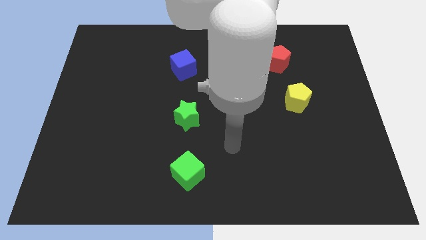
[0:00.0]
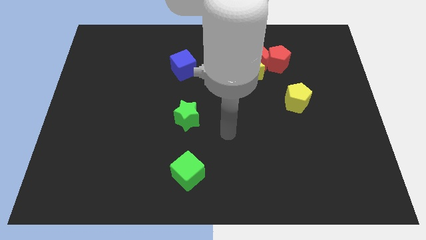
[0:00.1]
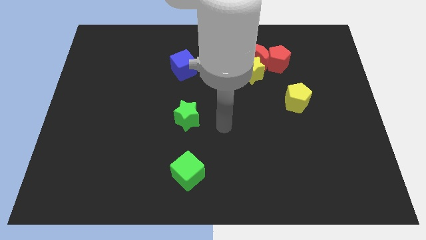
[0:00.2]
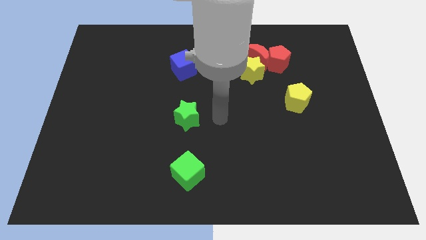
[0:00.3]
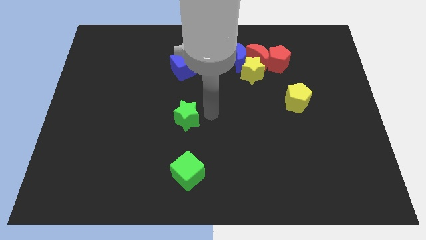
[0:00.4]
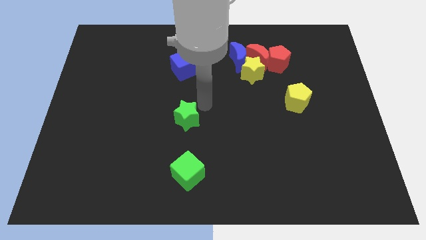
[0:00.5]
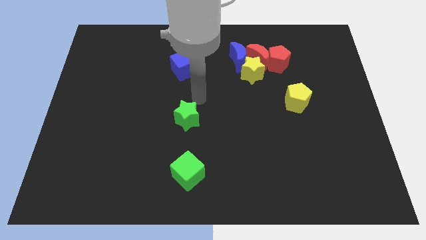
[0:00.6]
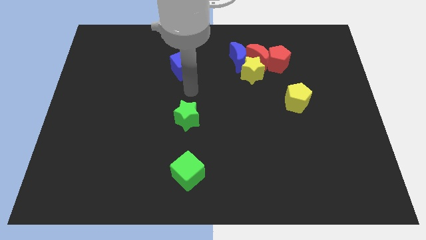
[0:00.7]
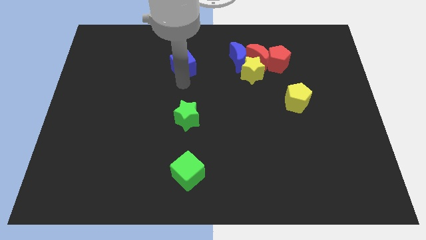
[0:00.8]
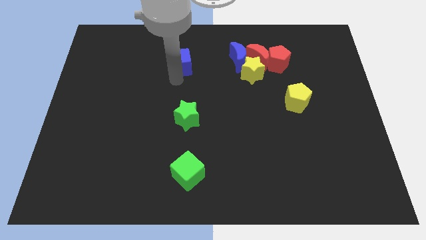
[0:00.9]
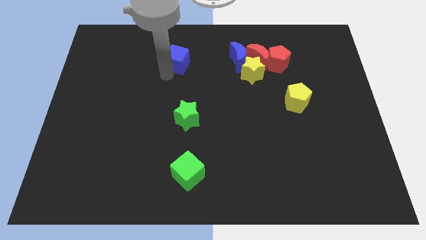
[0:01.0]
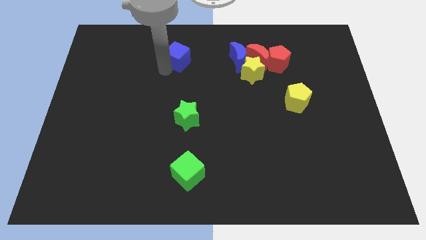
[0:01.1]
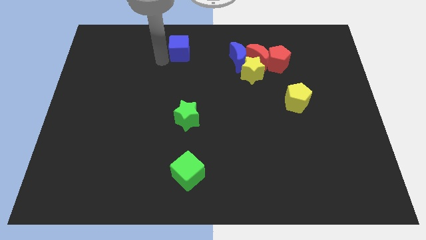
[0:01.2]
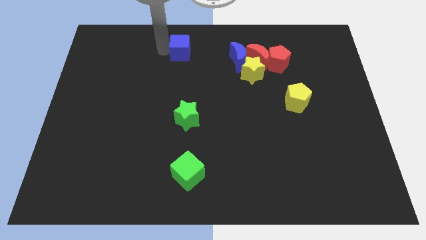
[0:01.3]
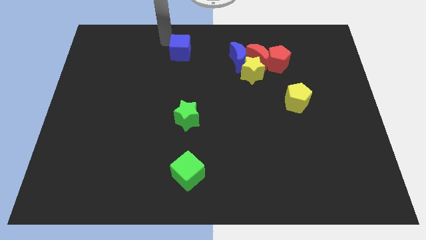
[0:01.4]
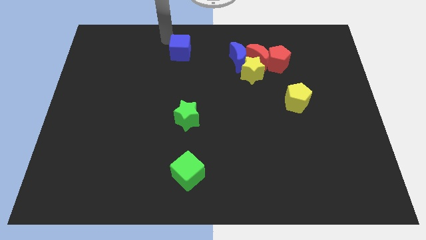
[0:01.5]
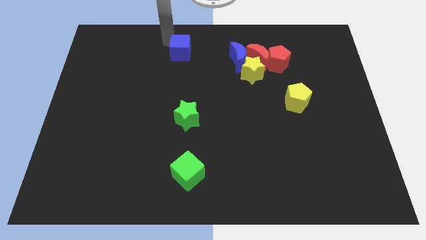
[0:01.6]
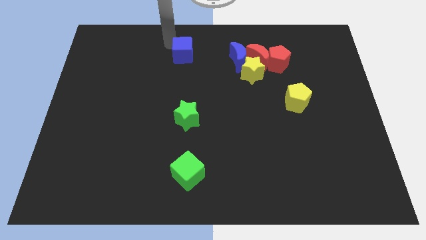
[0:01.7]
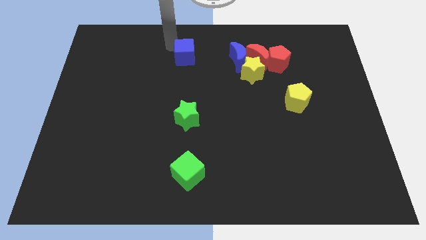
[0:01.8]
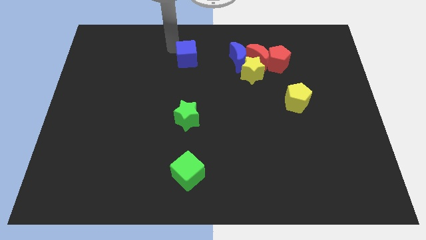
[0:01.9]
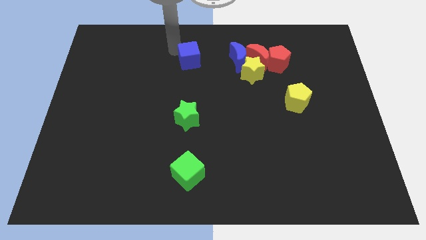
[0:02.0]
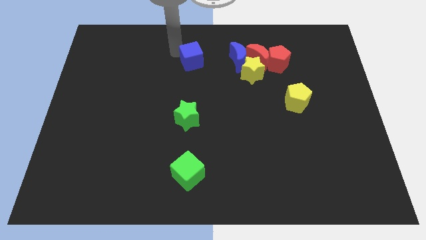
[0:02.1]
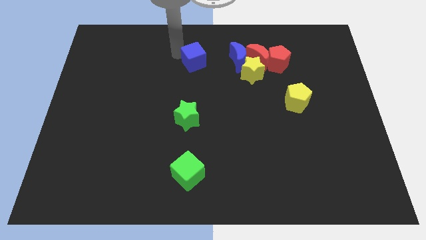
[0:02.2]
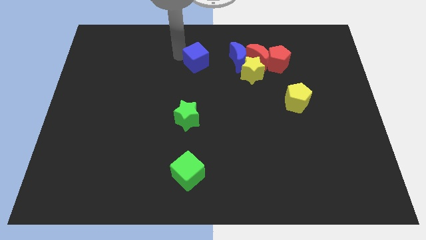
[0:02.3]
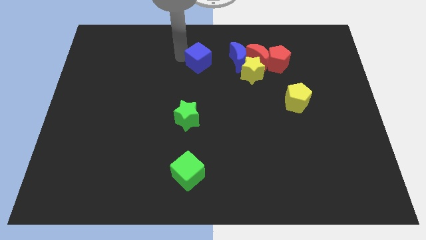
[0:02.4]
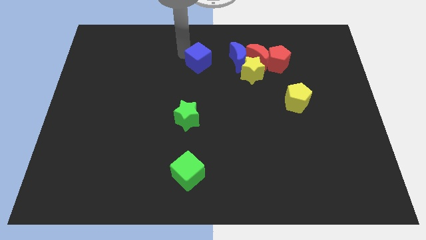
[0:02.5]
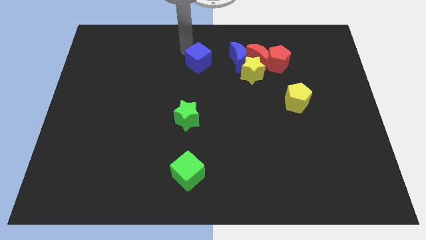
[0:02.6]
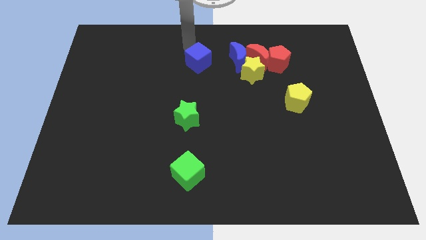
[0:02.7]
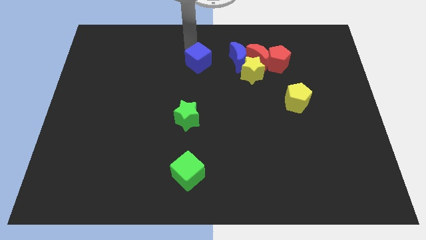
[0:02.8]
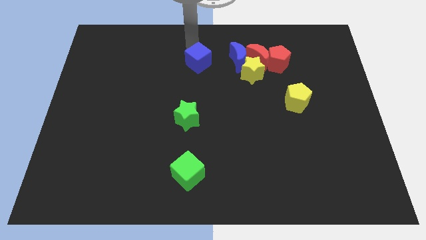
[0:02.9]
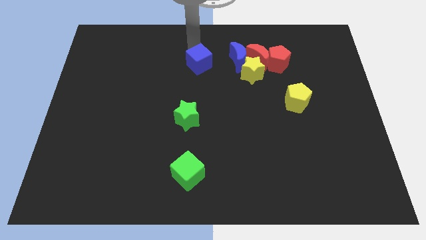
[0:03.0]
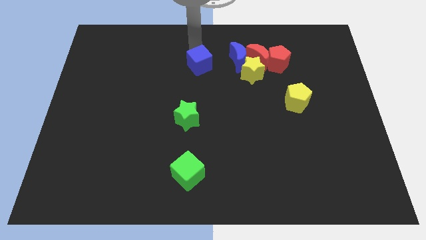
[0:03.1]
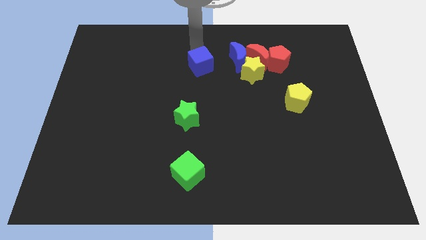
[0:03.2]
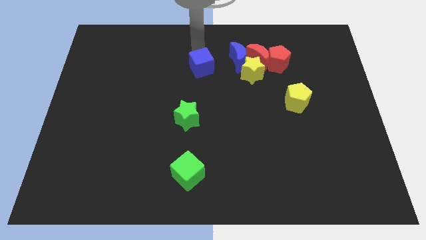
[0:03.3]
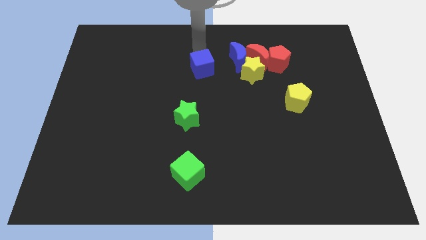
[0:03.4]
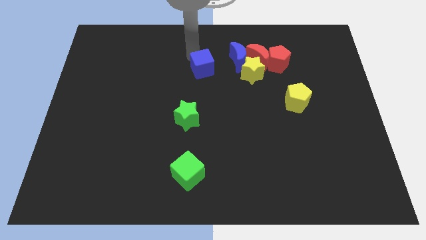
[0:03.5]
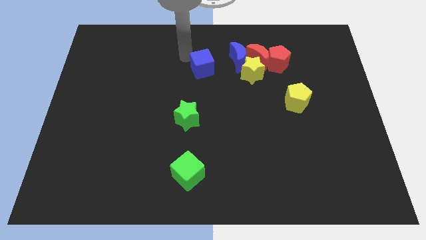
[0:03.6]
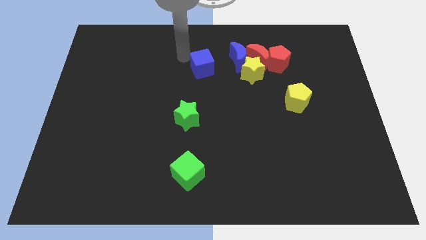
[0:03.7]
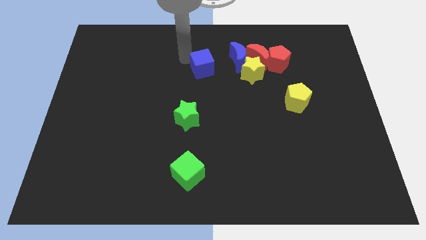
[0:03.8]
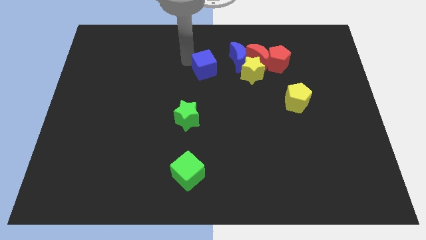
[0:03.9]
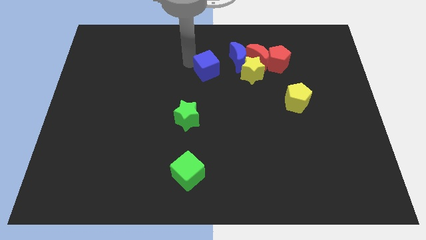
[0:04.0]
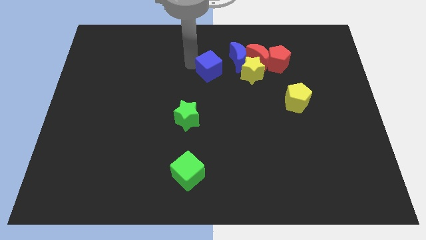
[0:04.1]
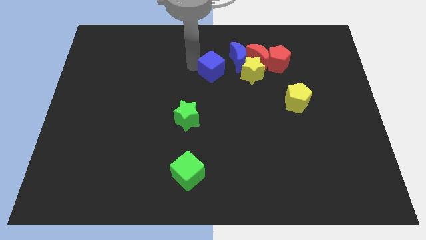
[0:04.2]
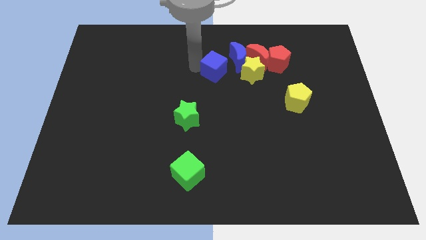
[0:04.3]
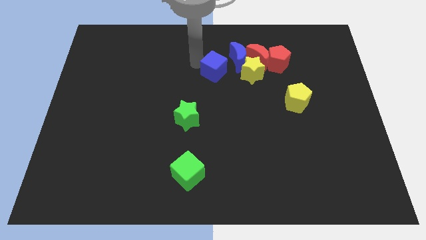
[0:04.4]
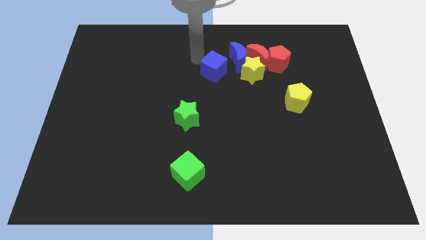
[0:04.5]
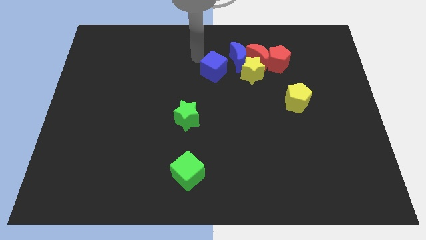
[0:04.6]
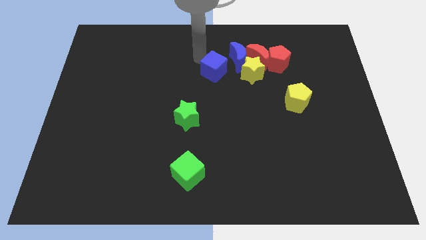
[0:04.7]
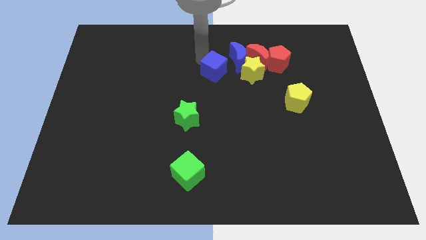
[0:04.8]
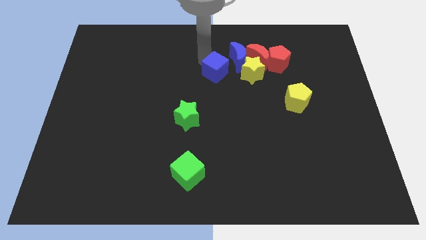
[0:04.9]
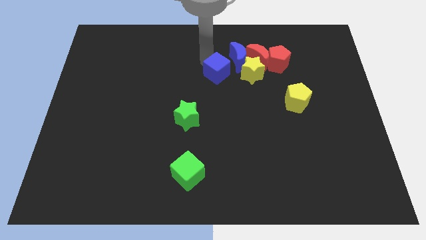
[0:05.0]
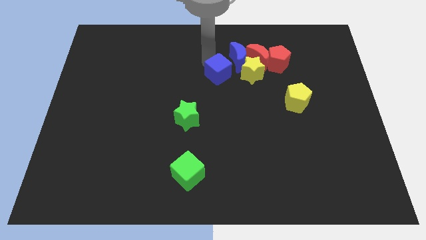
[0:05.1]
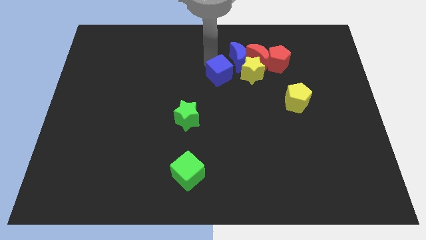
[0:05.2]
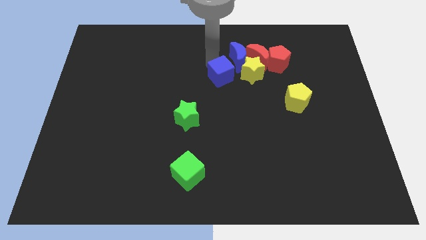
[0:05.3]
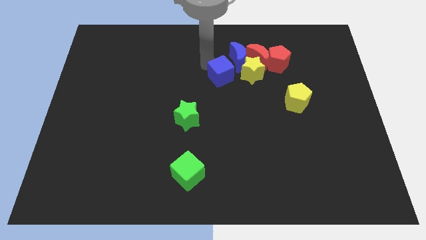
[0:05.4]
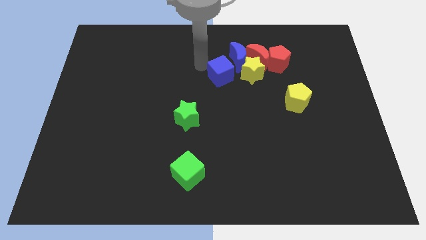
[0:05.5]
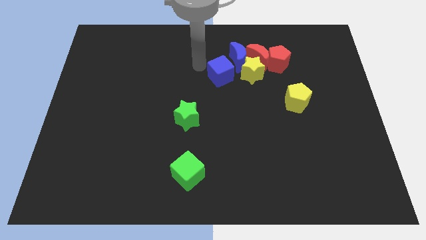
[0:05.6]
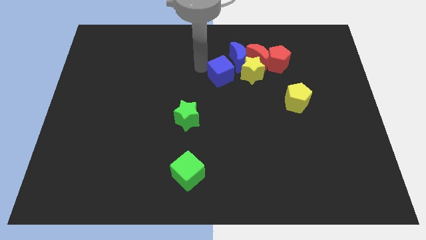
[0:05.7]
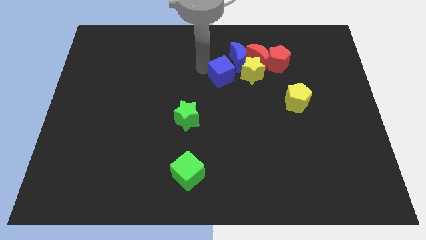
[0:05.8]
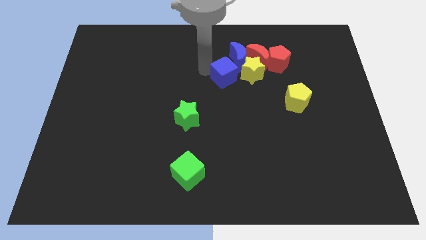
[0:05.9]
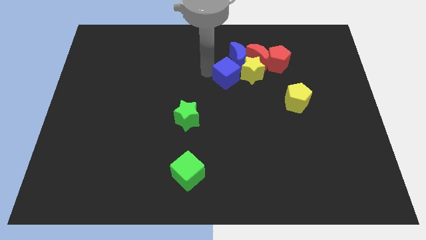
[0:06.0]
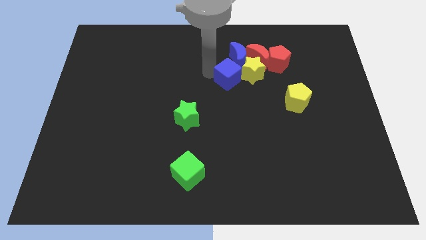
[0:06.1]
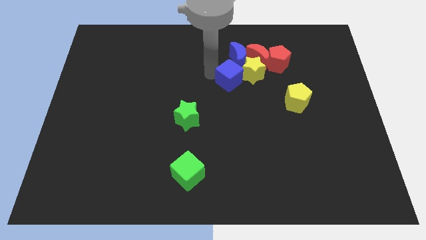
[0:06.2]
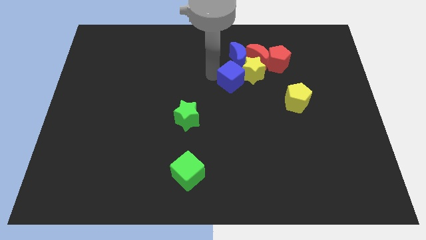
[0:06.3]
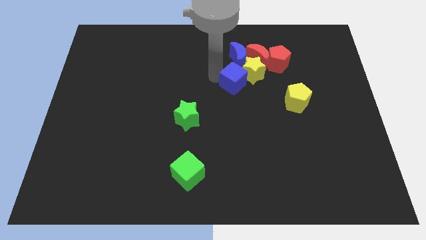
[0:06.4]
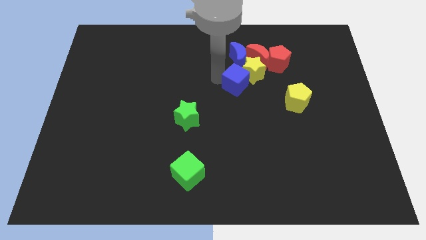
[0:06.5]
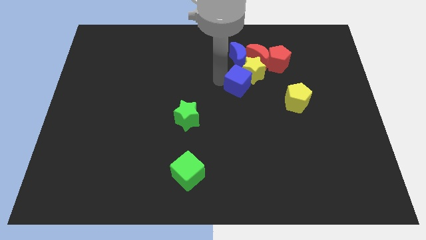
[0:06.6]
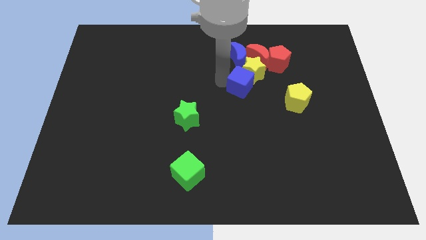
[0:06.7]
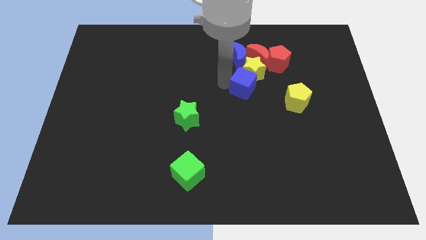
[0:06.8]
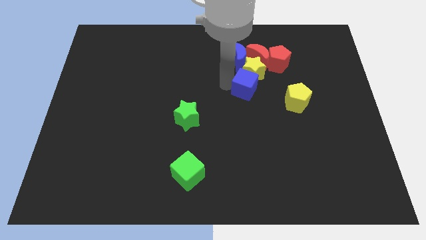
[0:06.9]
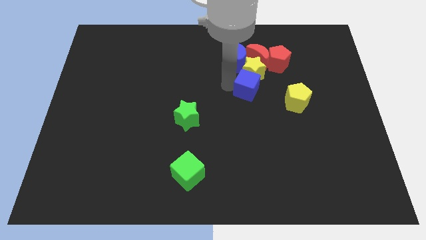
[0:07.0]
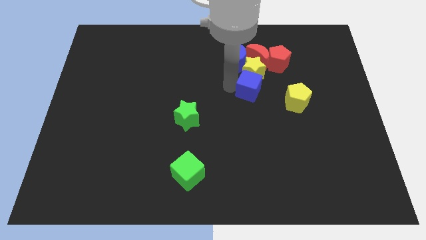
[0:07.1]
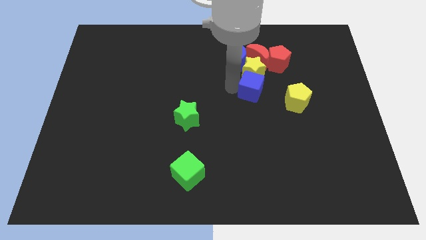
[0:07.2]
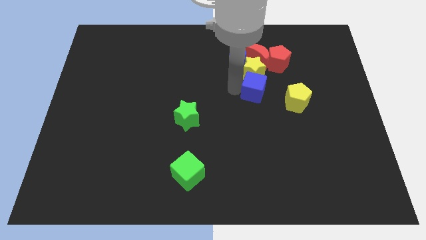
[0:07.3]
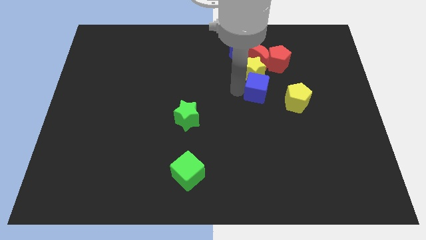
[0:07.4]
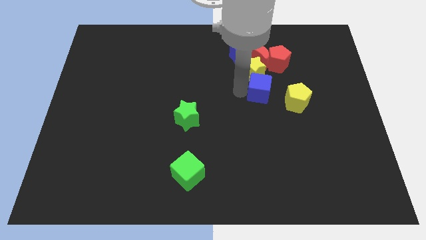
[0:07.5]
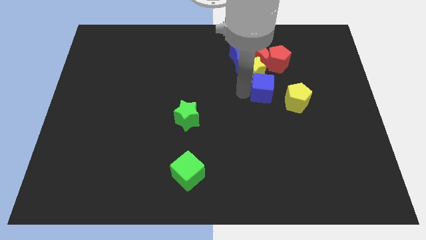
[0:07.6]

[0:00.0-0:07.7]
move the blue cube to the bottom side of the red pentagon

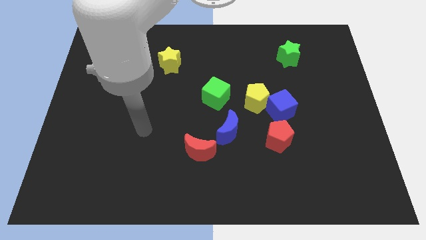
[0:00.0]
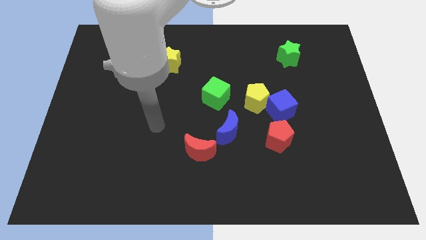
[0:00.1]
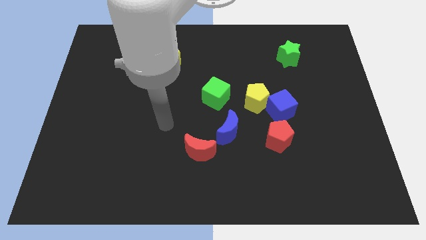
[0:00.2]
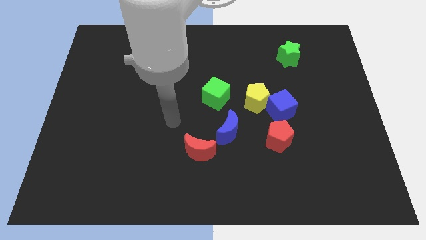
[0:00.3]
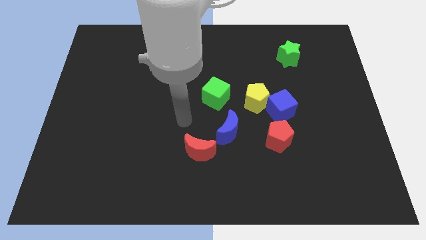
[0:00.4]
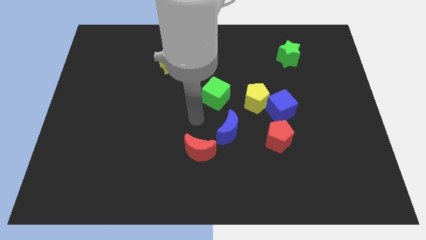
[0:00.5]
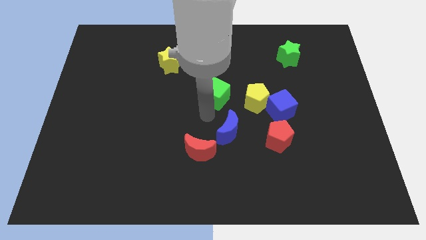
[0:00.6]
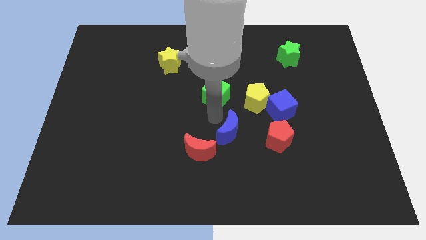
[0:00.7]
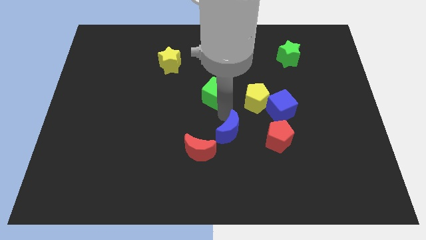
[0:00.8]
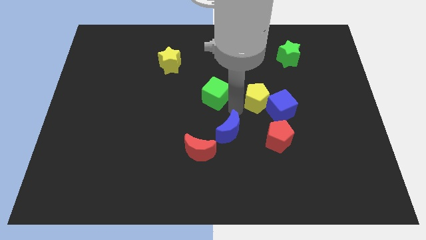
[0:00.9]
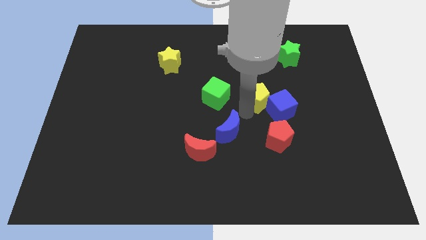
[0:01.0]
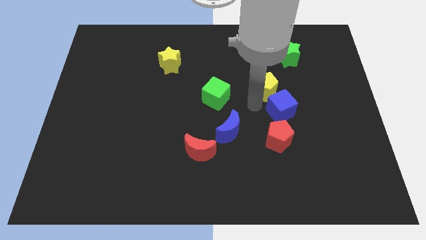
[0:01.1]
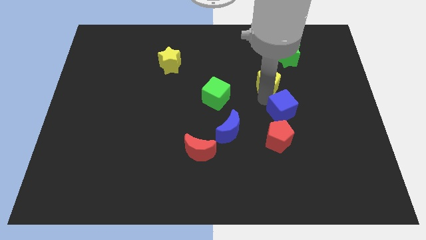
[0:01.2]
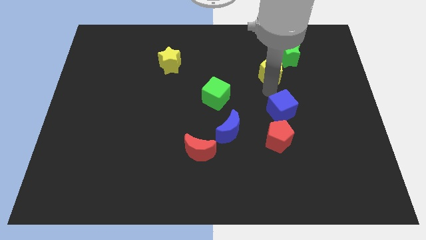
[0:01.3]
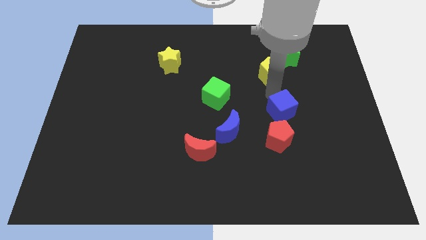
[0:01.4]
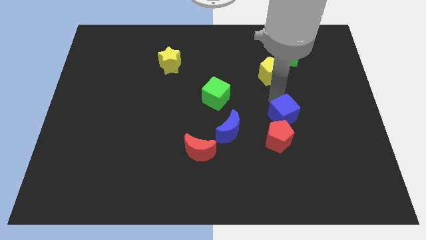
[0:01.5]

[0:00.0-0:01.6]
move the blue cube just right of the blue moon
